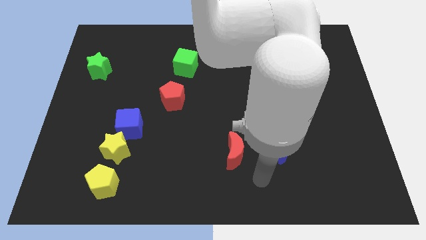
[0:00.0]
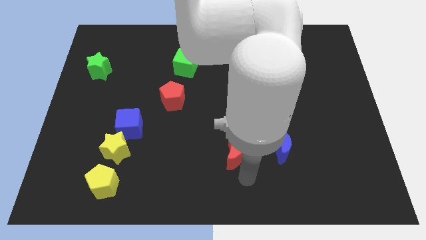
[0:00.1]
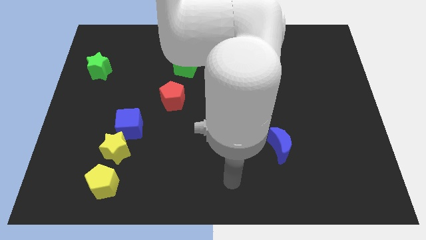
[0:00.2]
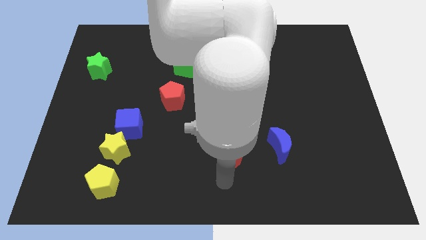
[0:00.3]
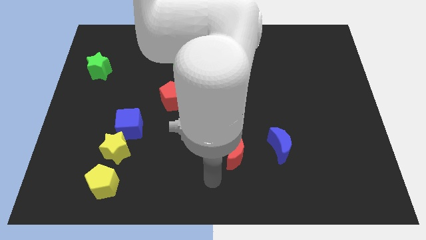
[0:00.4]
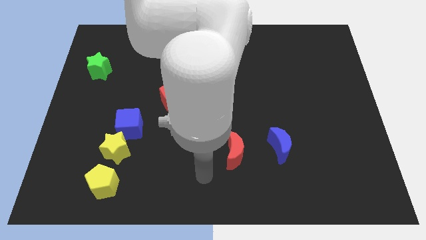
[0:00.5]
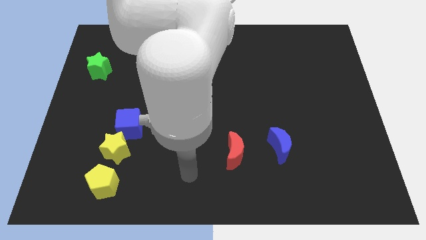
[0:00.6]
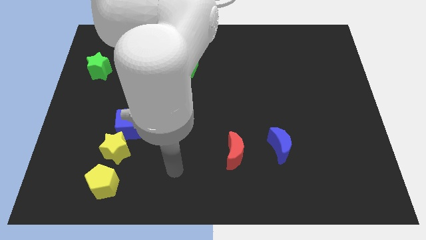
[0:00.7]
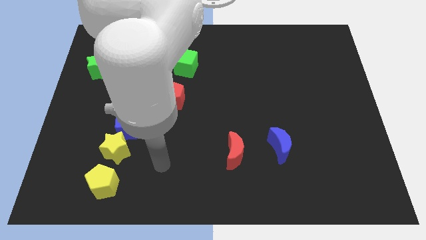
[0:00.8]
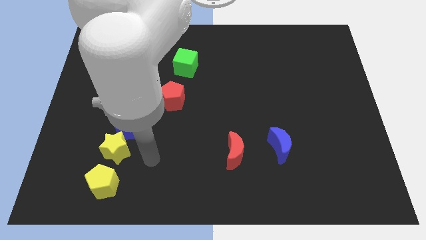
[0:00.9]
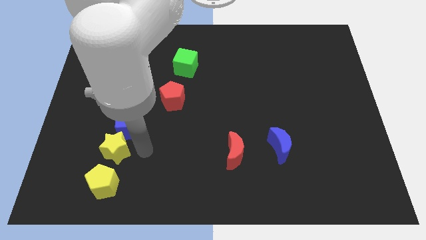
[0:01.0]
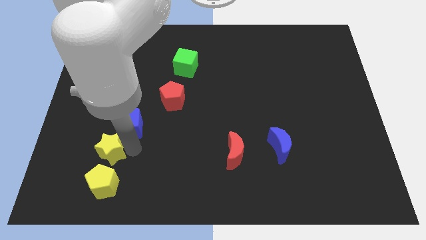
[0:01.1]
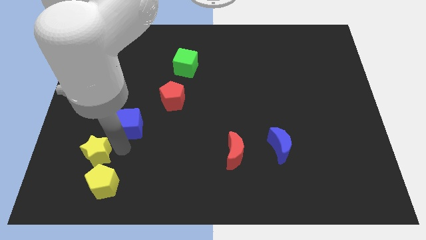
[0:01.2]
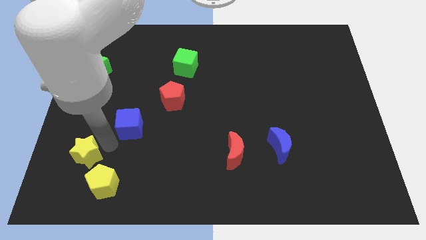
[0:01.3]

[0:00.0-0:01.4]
move the blue cube away from the yellow star

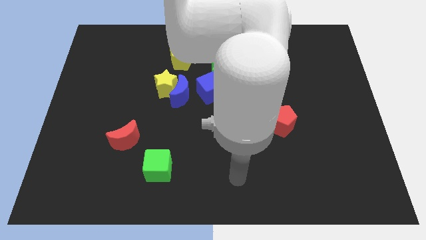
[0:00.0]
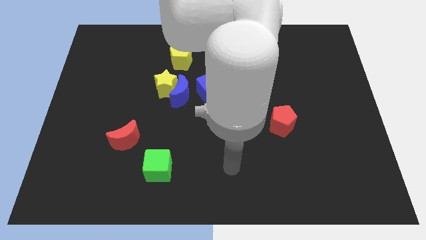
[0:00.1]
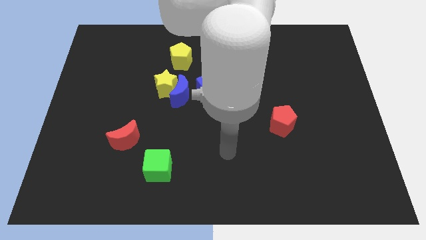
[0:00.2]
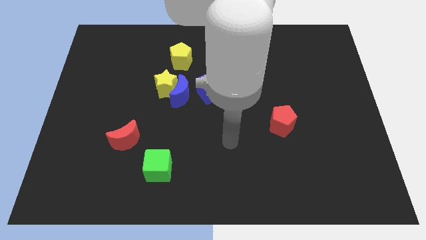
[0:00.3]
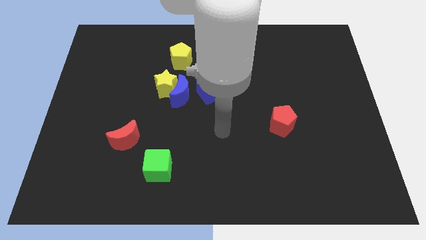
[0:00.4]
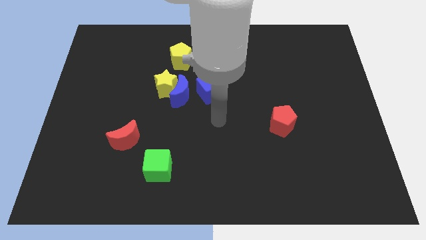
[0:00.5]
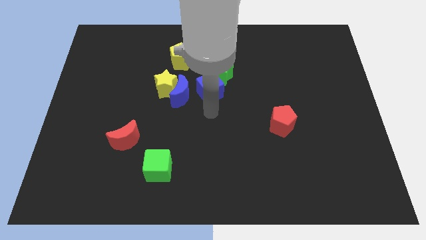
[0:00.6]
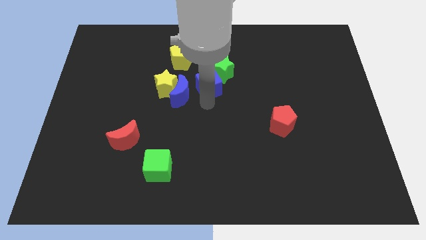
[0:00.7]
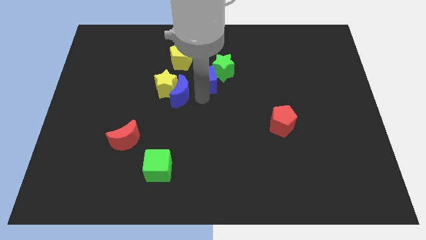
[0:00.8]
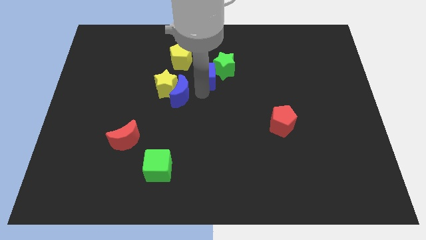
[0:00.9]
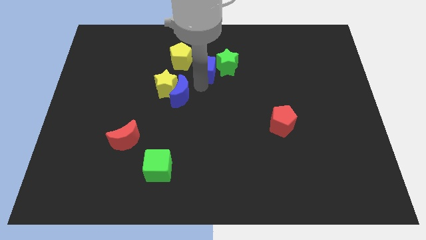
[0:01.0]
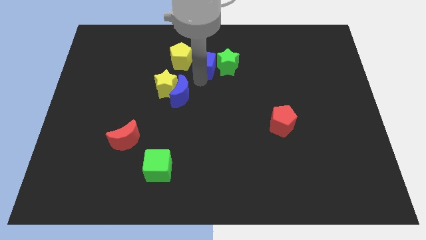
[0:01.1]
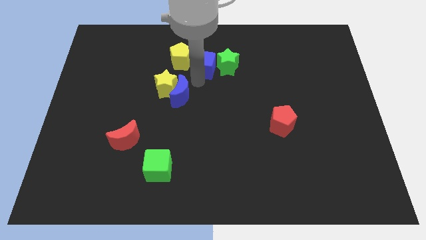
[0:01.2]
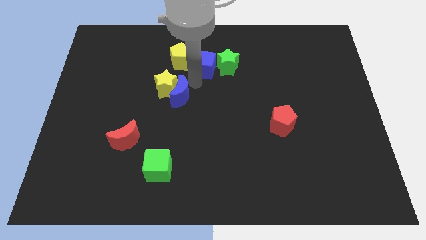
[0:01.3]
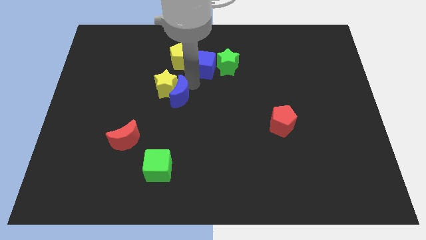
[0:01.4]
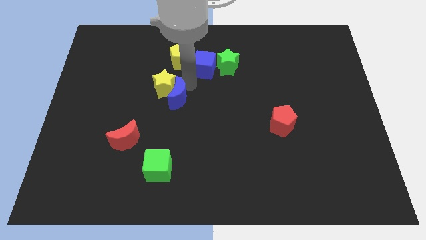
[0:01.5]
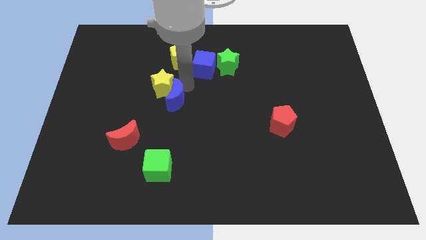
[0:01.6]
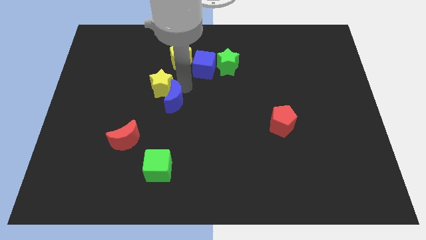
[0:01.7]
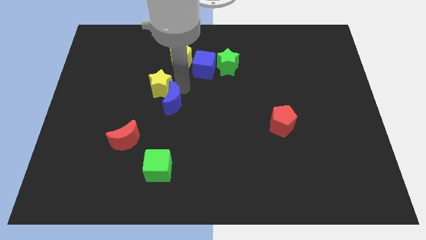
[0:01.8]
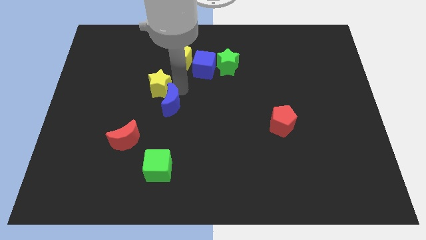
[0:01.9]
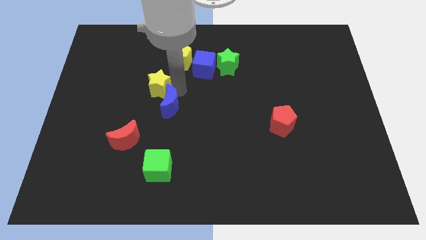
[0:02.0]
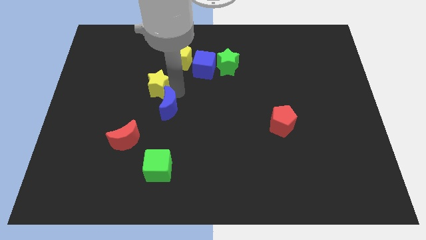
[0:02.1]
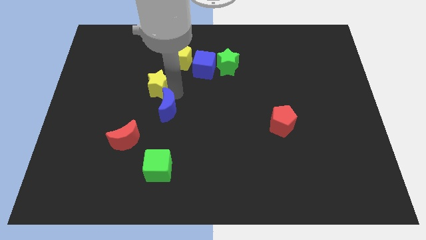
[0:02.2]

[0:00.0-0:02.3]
separate the blue moon from the yellow star and blue cube

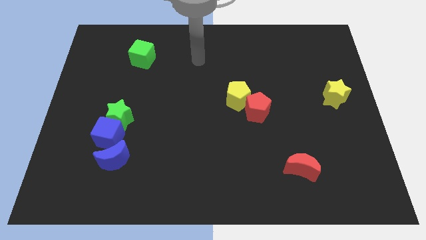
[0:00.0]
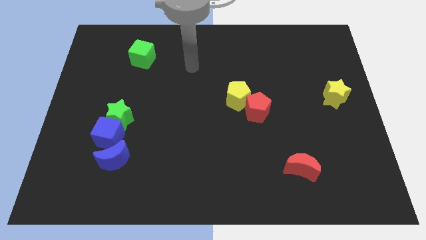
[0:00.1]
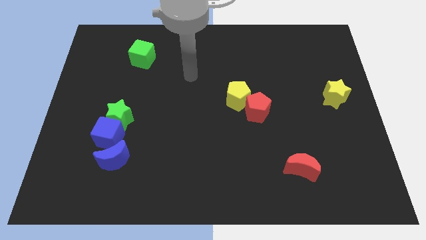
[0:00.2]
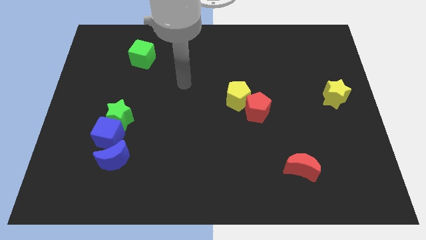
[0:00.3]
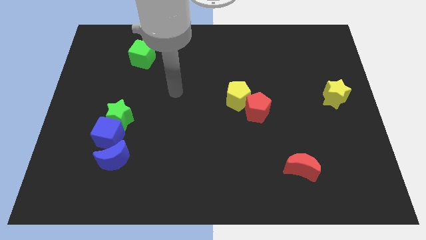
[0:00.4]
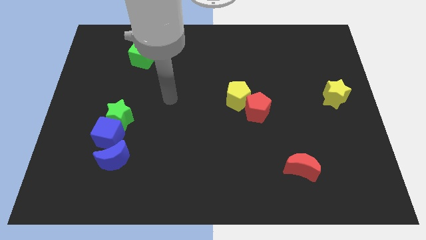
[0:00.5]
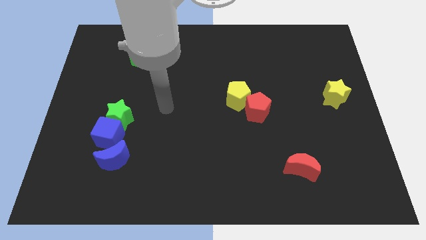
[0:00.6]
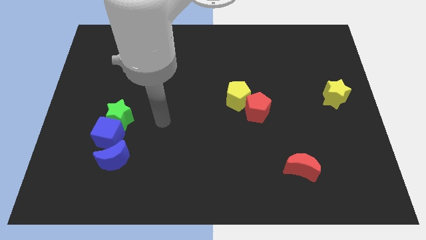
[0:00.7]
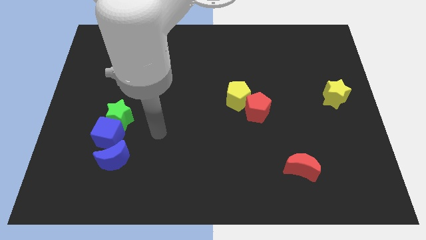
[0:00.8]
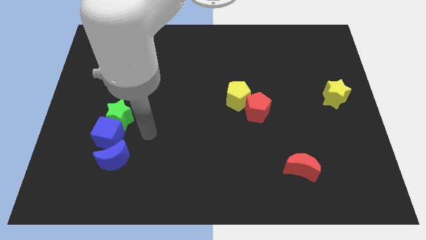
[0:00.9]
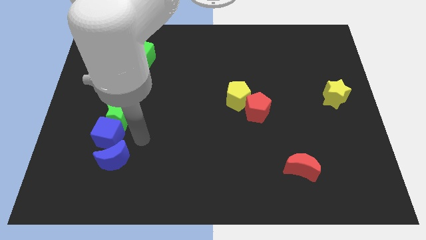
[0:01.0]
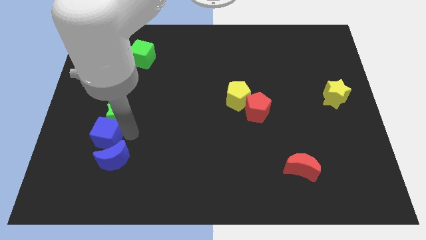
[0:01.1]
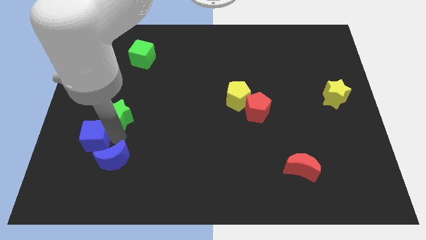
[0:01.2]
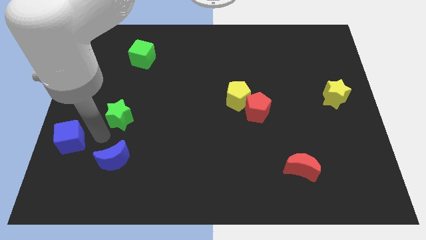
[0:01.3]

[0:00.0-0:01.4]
move the green star away from the blue cube

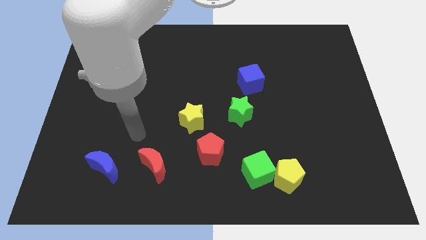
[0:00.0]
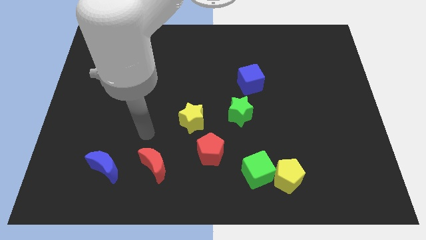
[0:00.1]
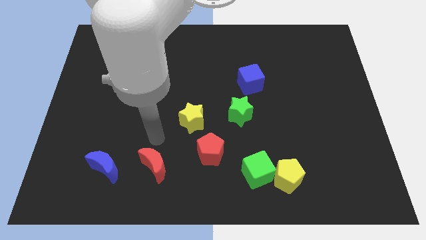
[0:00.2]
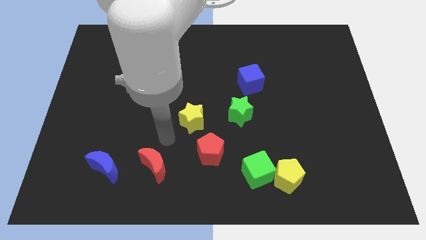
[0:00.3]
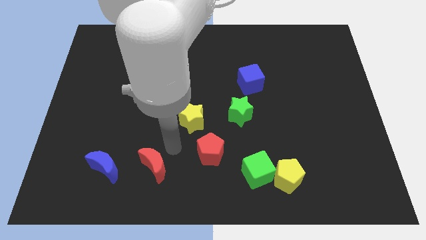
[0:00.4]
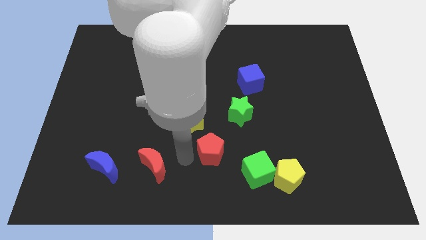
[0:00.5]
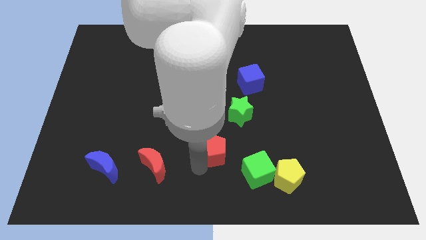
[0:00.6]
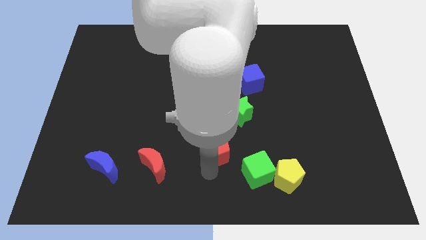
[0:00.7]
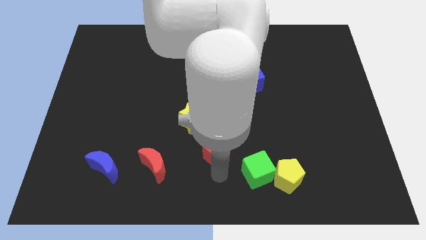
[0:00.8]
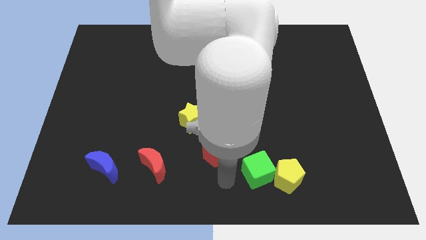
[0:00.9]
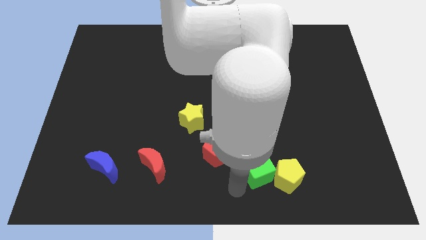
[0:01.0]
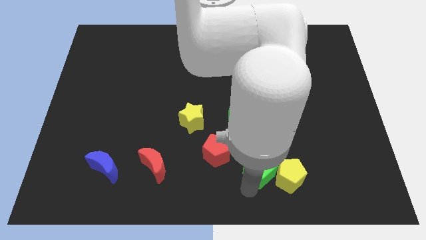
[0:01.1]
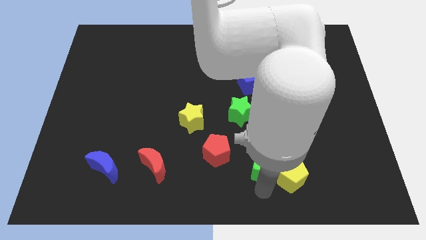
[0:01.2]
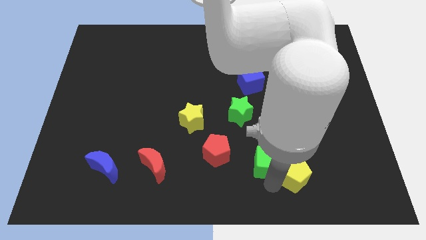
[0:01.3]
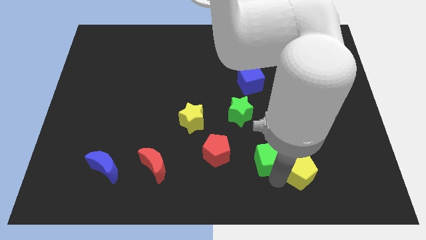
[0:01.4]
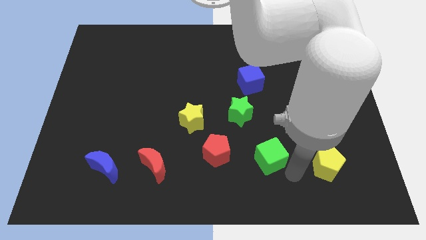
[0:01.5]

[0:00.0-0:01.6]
pull the green cube apart from the yellow pentagon

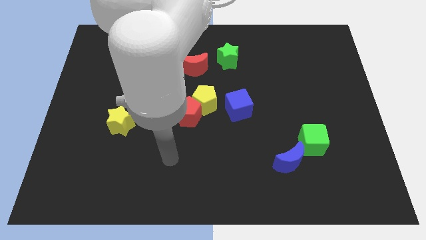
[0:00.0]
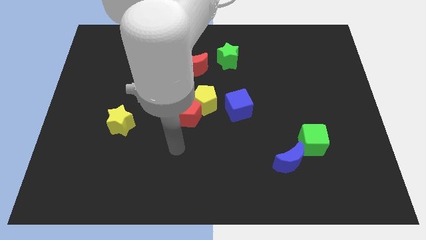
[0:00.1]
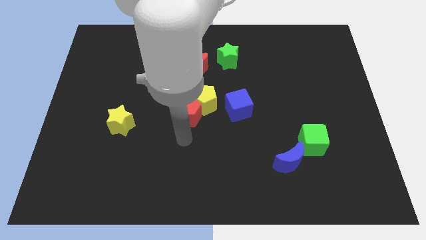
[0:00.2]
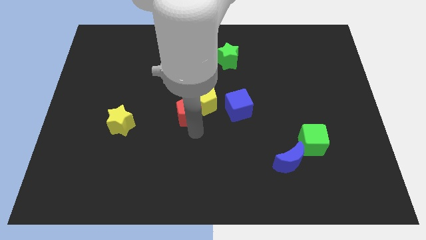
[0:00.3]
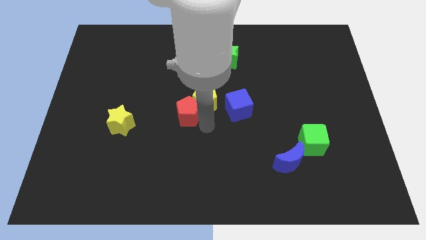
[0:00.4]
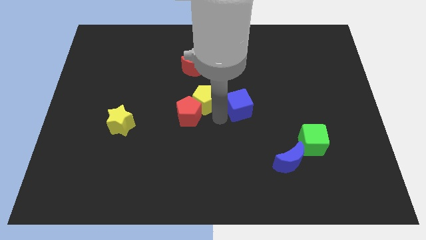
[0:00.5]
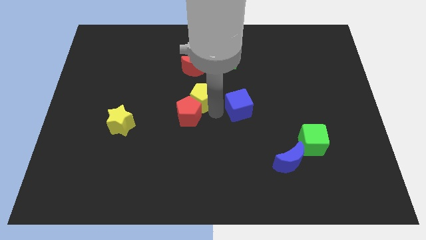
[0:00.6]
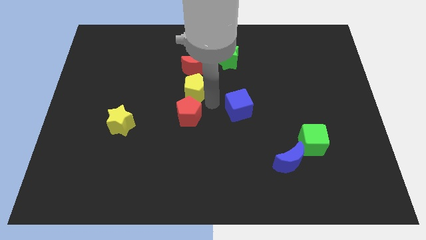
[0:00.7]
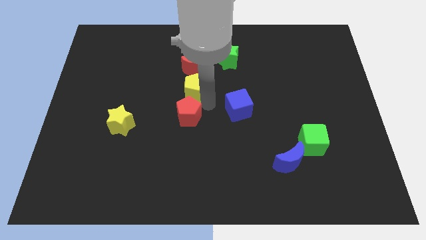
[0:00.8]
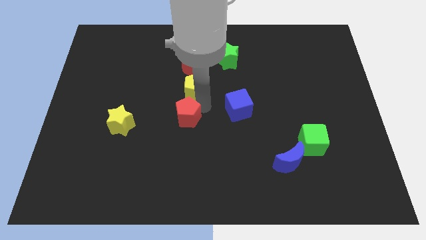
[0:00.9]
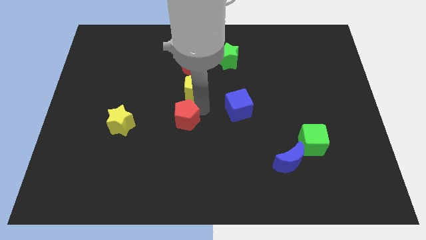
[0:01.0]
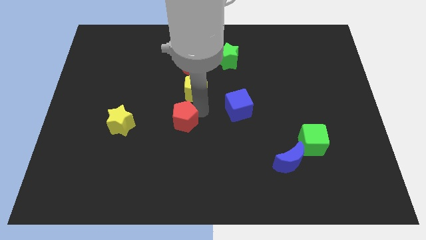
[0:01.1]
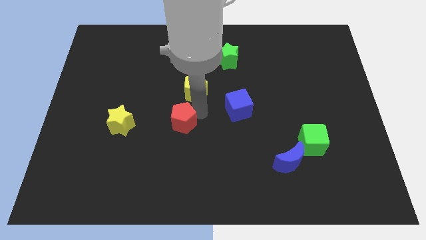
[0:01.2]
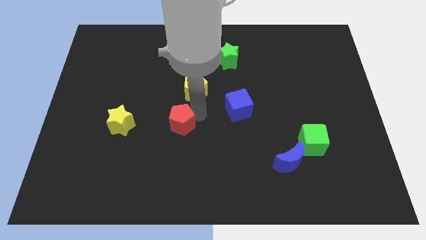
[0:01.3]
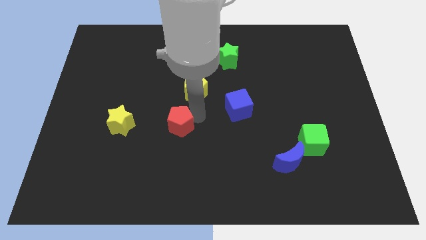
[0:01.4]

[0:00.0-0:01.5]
move the red pentagon away from the yellow pentagon

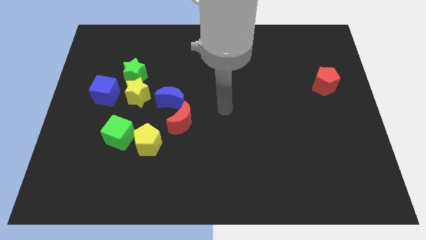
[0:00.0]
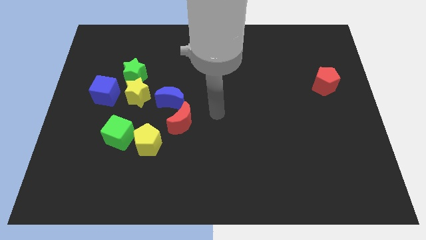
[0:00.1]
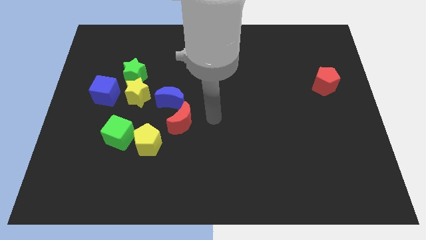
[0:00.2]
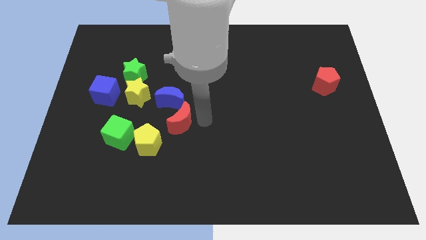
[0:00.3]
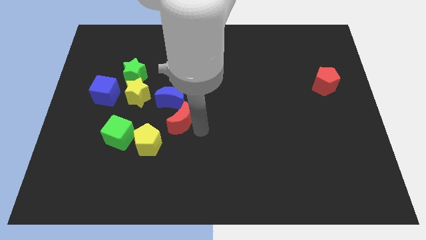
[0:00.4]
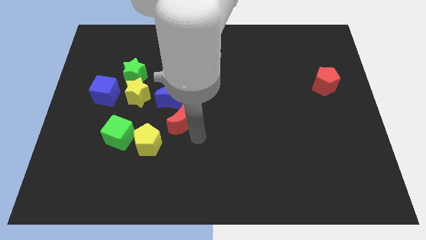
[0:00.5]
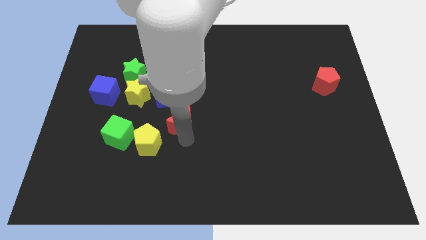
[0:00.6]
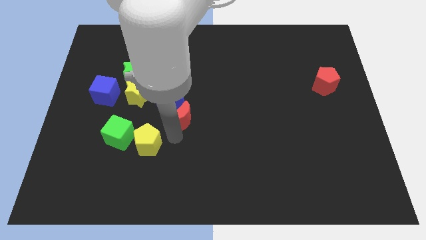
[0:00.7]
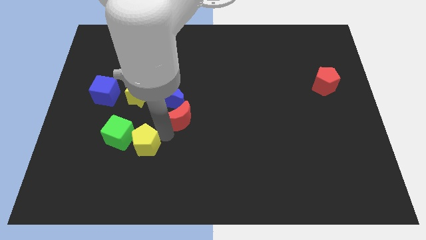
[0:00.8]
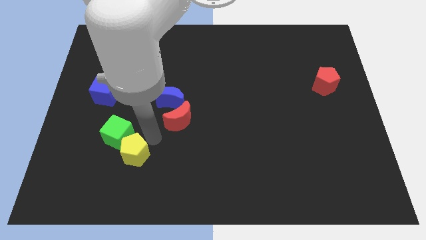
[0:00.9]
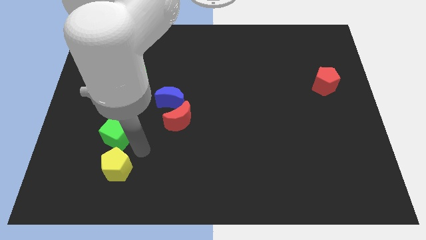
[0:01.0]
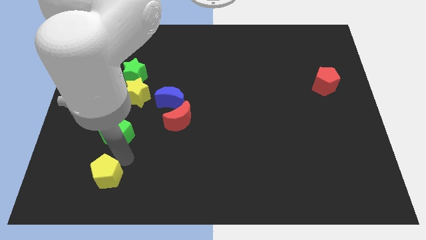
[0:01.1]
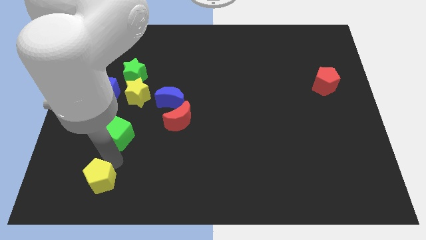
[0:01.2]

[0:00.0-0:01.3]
separate the green cube from the yellow pentagon
